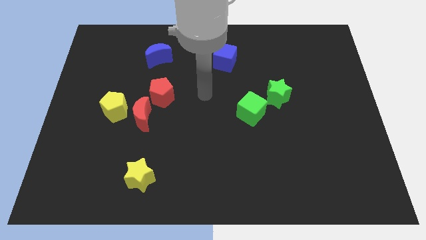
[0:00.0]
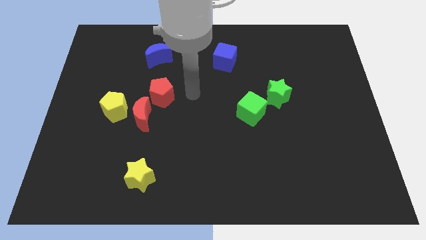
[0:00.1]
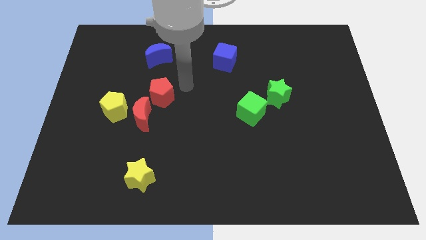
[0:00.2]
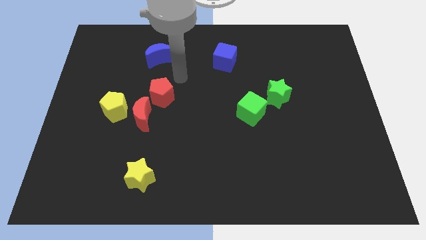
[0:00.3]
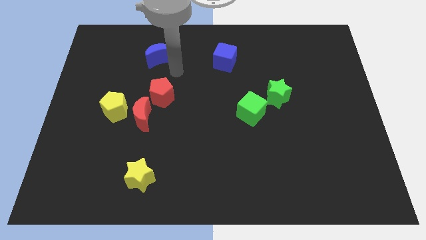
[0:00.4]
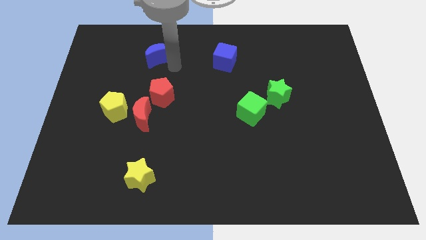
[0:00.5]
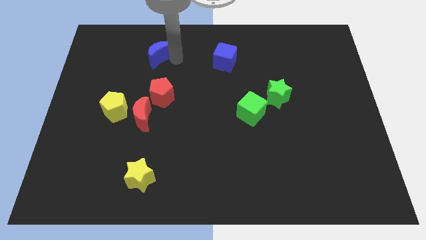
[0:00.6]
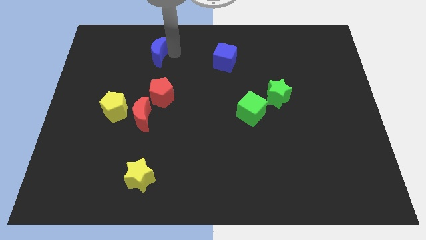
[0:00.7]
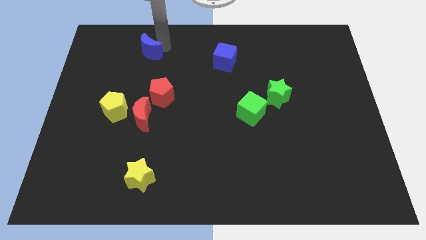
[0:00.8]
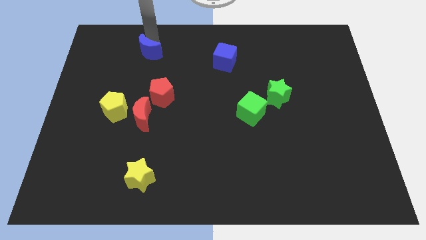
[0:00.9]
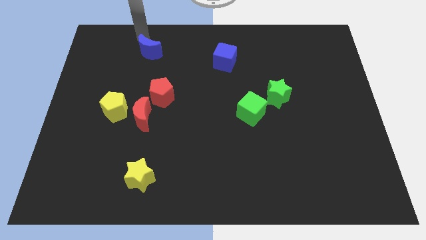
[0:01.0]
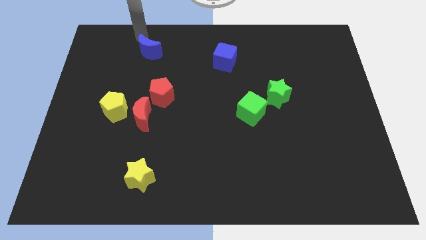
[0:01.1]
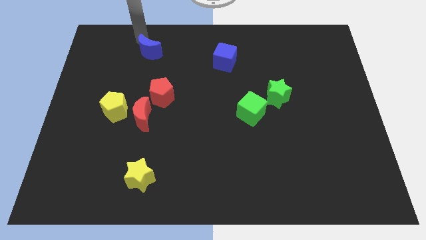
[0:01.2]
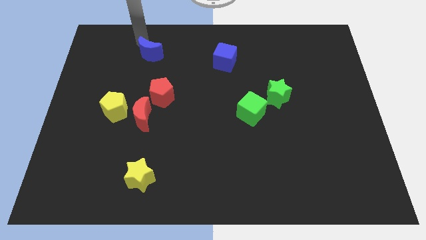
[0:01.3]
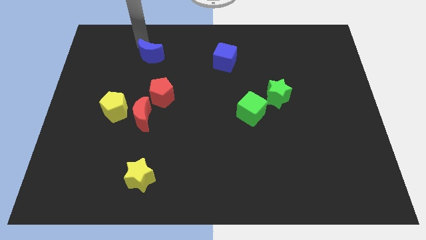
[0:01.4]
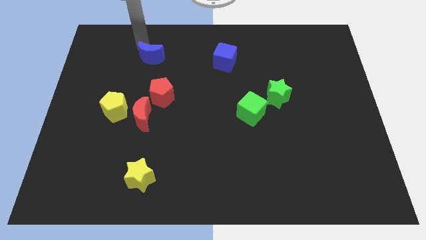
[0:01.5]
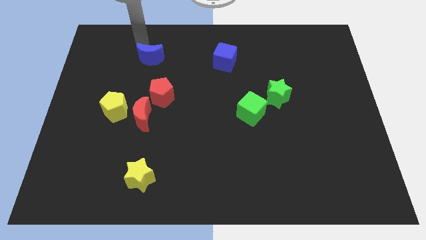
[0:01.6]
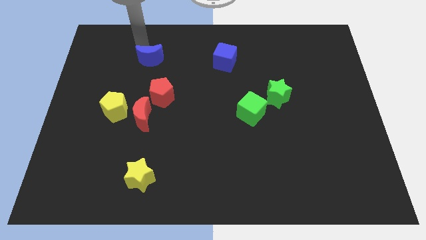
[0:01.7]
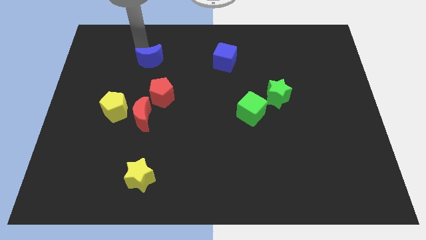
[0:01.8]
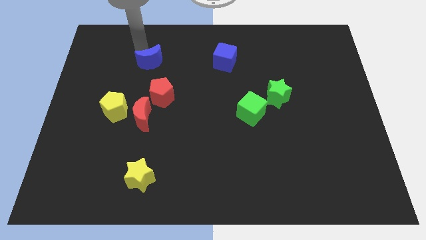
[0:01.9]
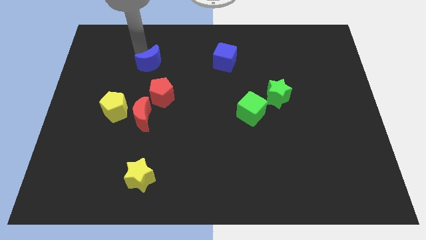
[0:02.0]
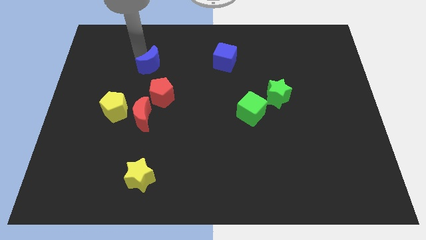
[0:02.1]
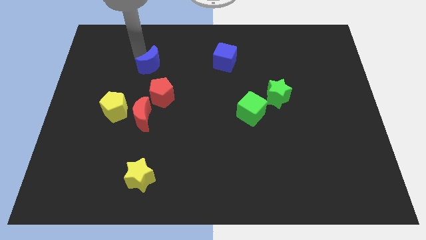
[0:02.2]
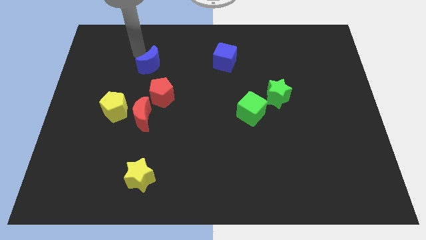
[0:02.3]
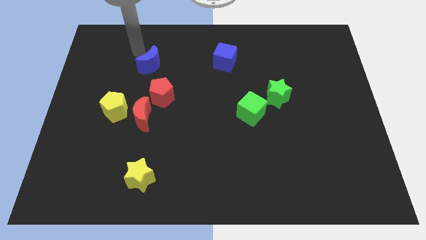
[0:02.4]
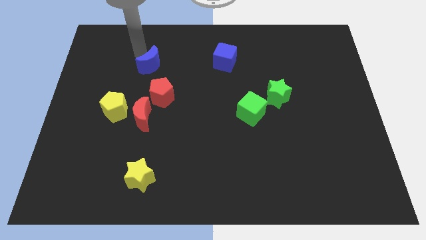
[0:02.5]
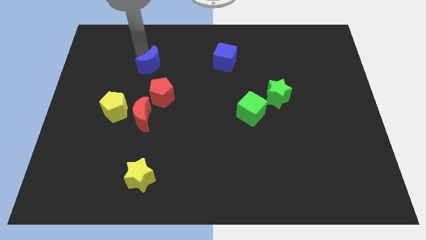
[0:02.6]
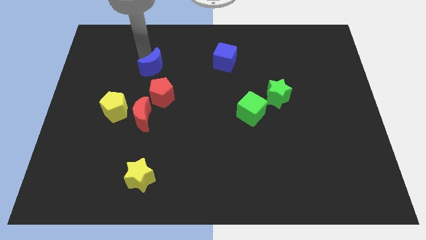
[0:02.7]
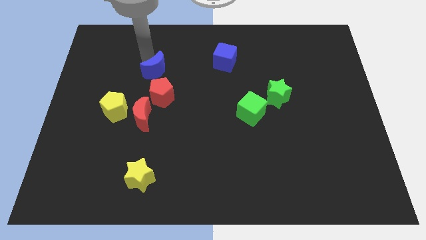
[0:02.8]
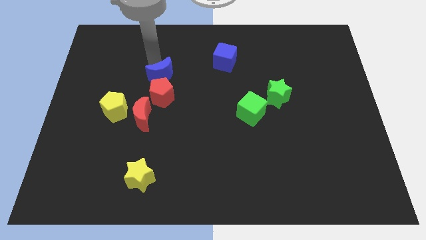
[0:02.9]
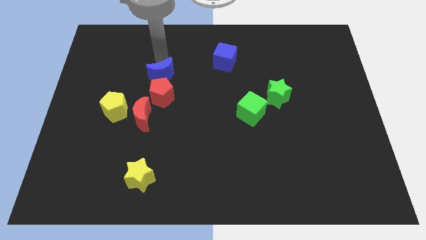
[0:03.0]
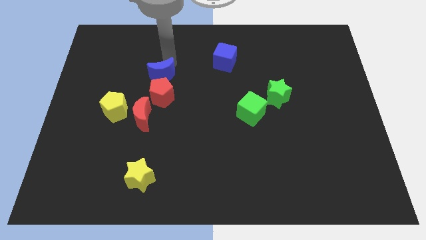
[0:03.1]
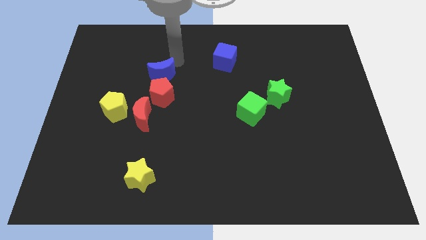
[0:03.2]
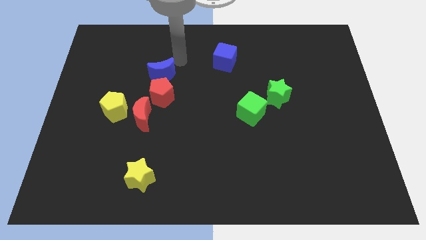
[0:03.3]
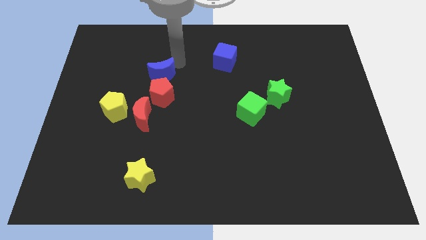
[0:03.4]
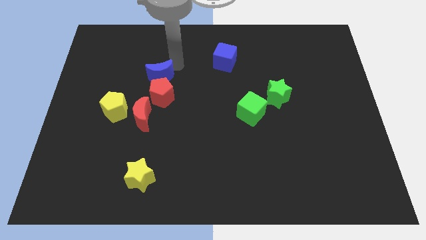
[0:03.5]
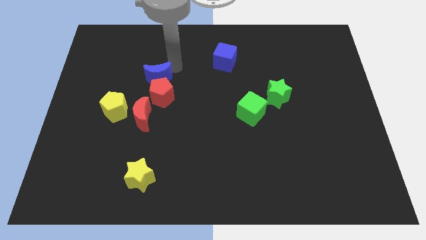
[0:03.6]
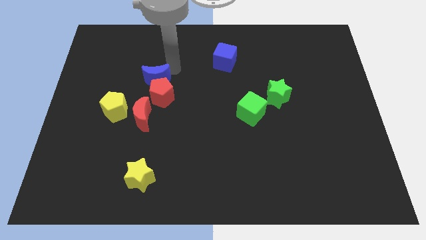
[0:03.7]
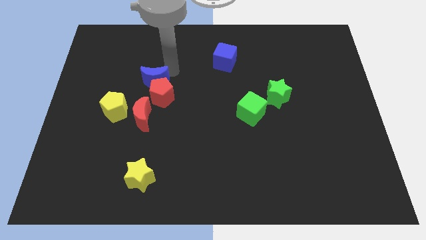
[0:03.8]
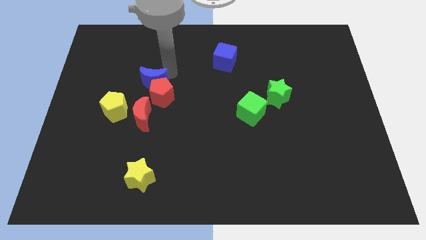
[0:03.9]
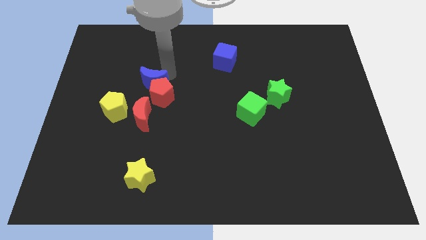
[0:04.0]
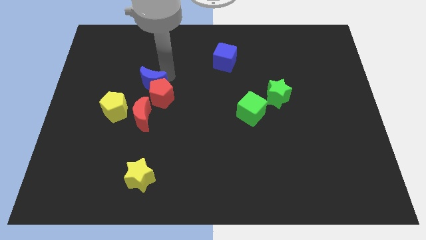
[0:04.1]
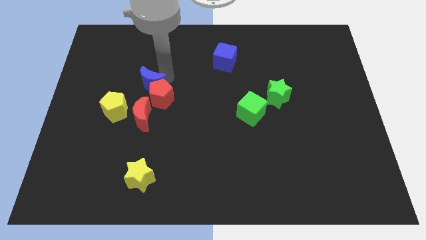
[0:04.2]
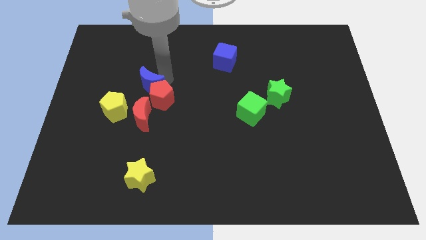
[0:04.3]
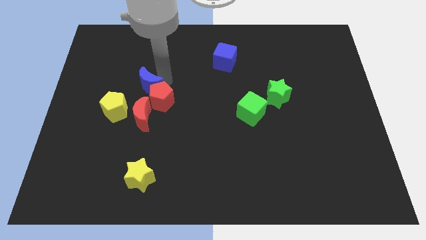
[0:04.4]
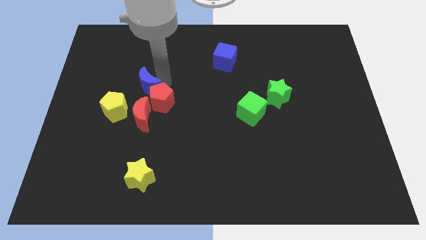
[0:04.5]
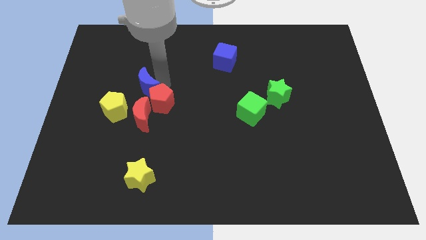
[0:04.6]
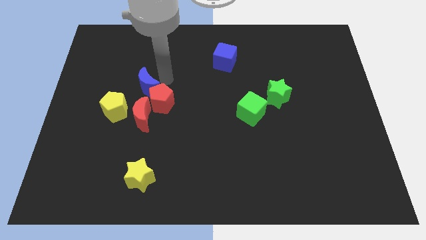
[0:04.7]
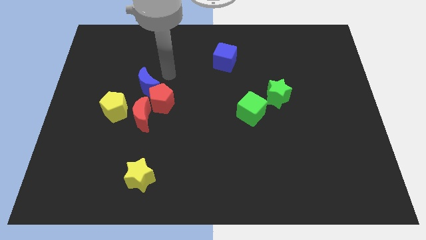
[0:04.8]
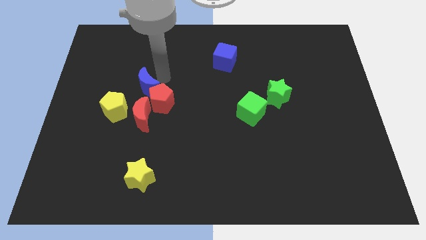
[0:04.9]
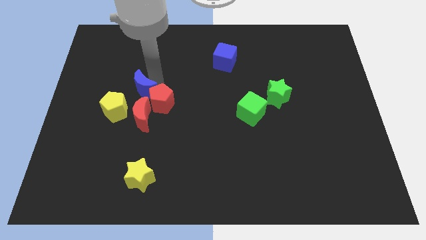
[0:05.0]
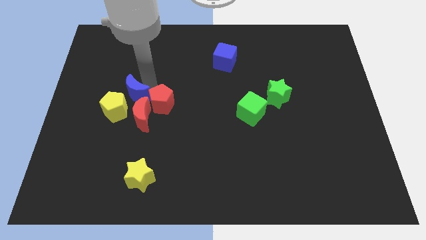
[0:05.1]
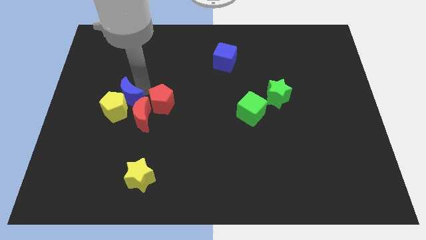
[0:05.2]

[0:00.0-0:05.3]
put the blue moon towards the yellow pentagon

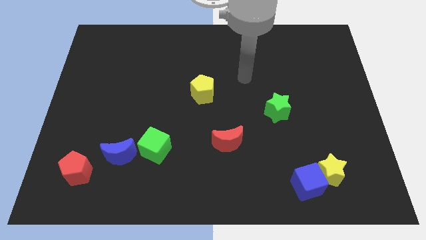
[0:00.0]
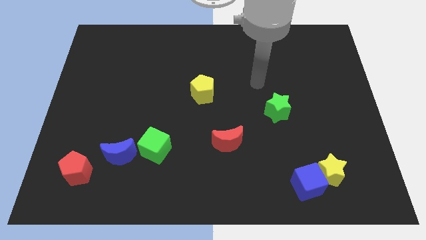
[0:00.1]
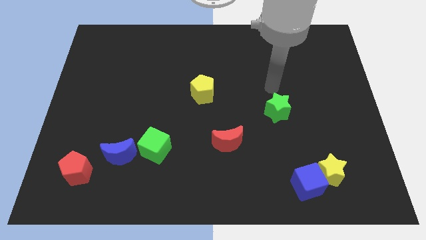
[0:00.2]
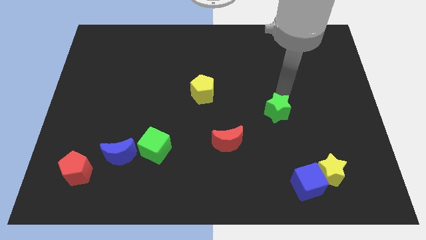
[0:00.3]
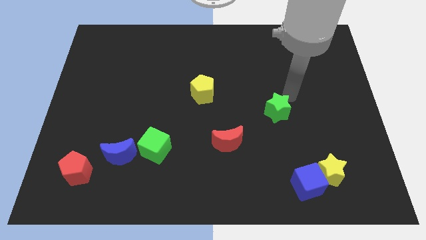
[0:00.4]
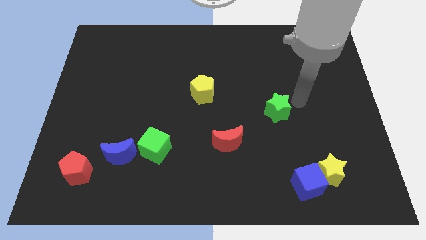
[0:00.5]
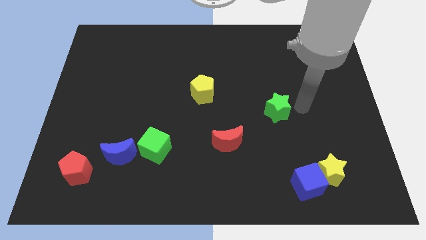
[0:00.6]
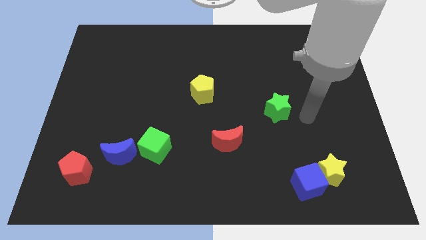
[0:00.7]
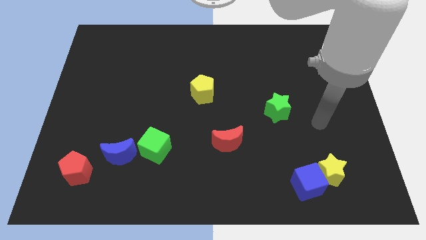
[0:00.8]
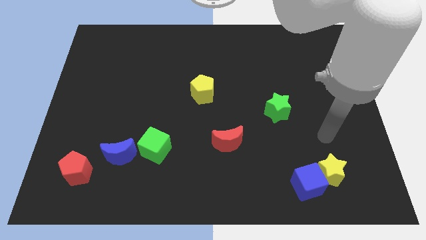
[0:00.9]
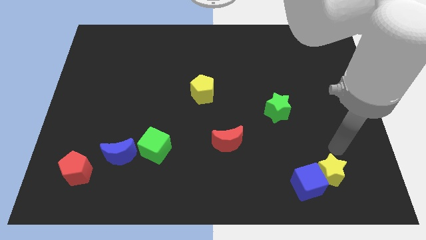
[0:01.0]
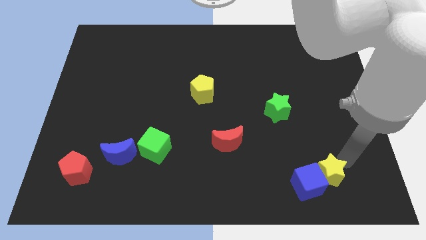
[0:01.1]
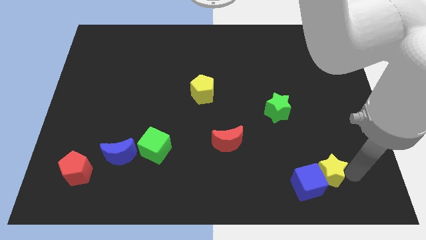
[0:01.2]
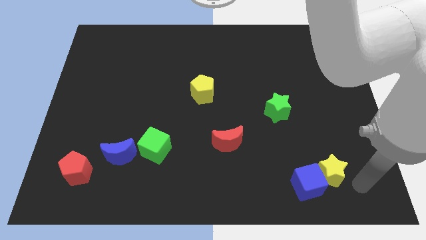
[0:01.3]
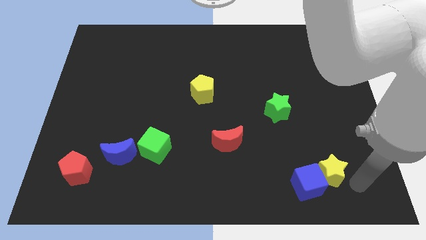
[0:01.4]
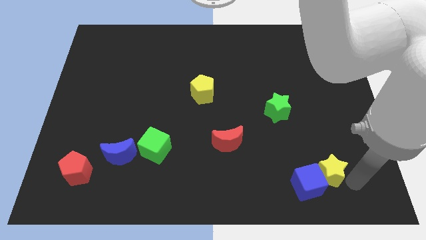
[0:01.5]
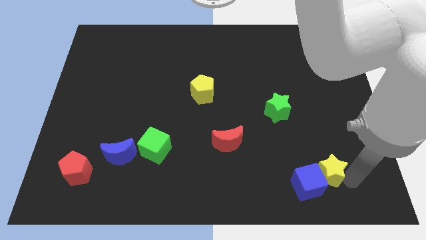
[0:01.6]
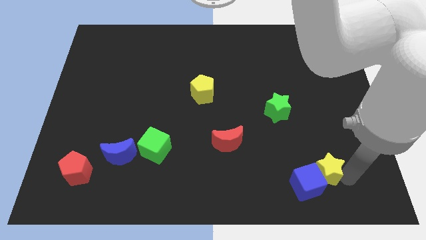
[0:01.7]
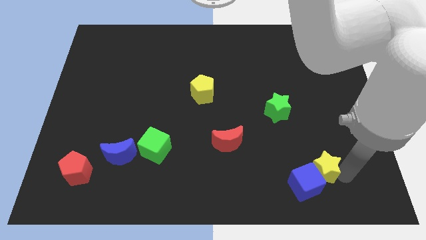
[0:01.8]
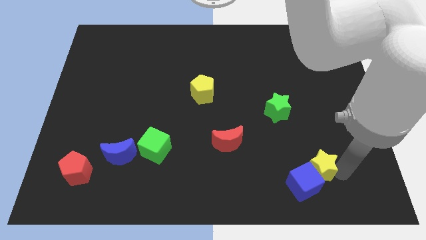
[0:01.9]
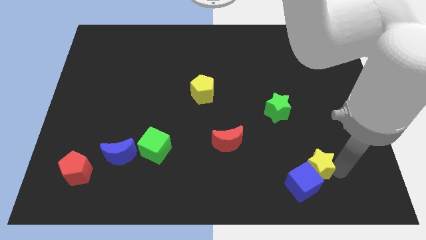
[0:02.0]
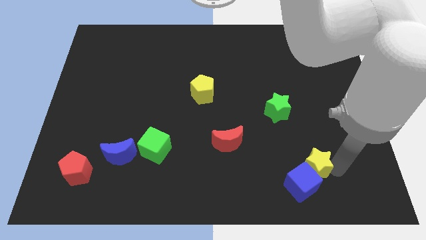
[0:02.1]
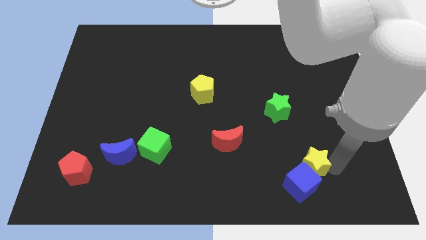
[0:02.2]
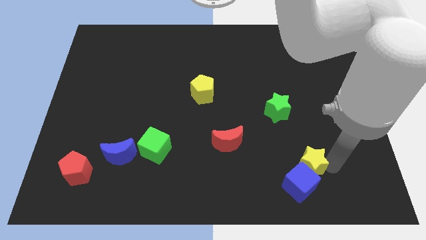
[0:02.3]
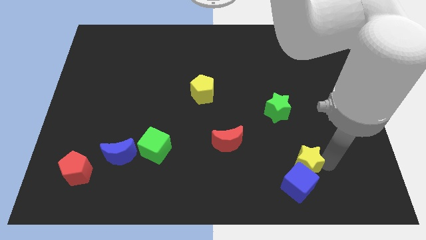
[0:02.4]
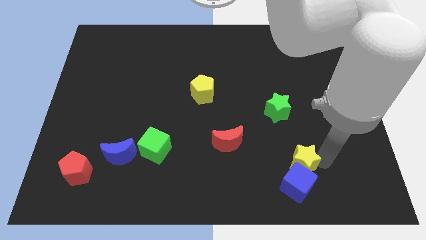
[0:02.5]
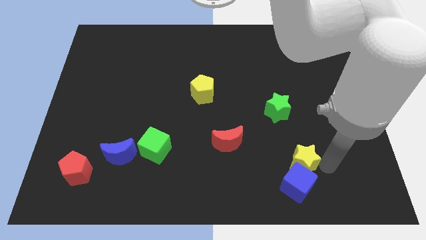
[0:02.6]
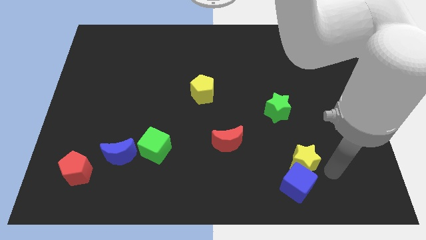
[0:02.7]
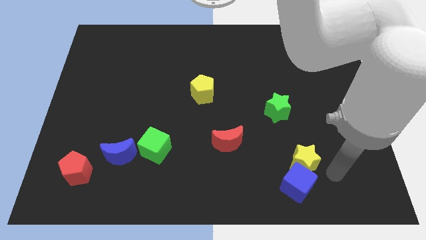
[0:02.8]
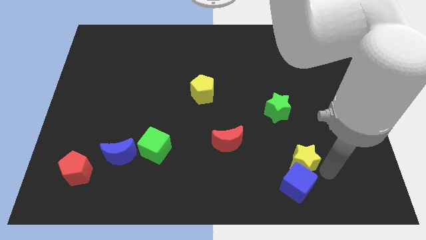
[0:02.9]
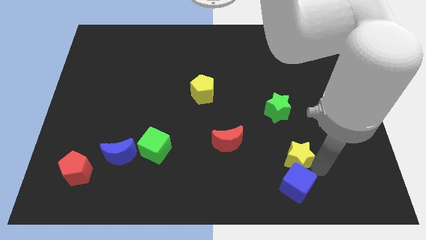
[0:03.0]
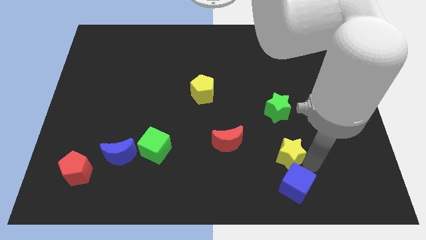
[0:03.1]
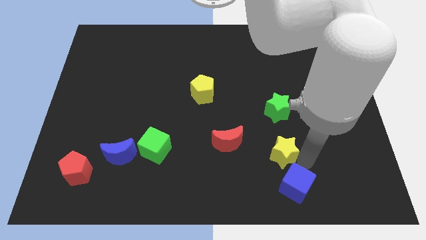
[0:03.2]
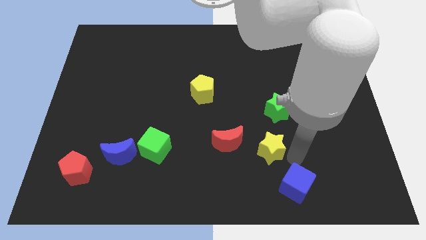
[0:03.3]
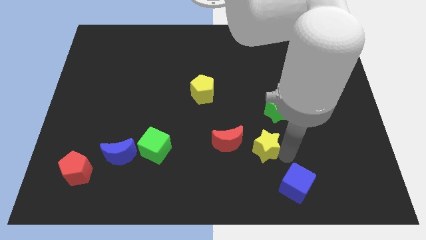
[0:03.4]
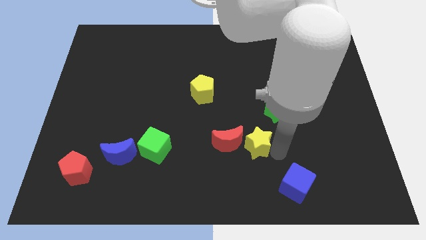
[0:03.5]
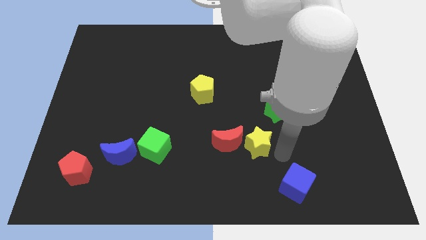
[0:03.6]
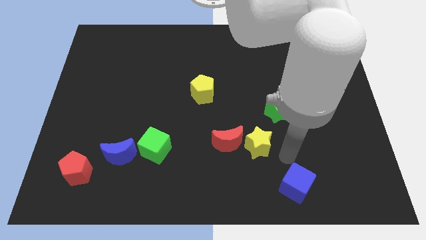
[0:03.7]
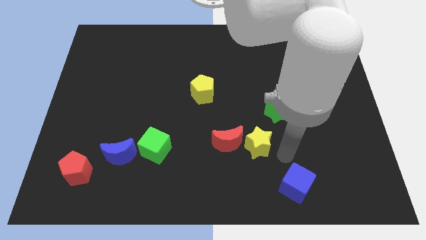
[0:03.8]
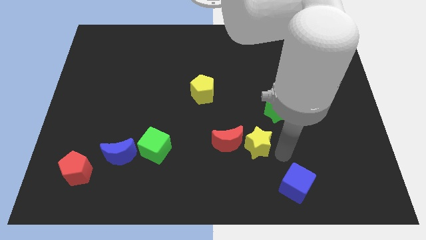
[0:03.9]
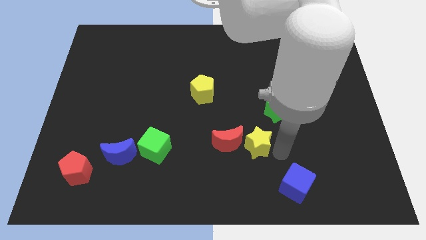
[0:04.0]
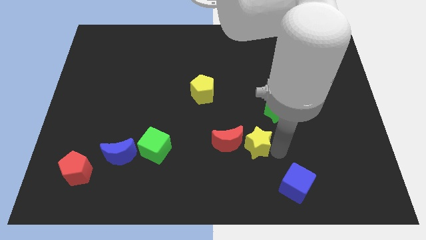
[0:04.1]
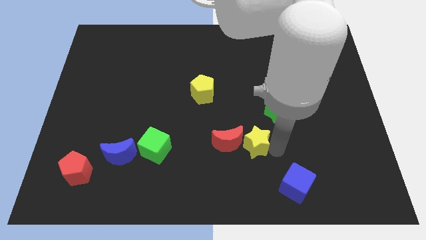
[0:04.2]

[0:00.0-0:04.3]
move the yellow star next to the red moon
